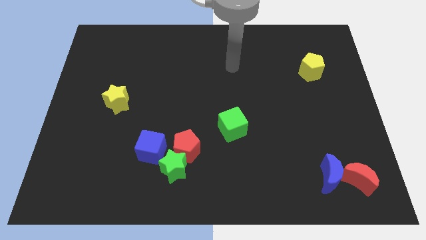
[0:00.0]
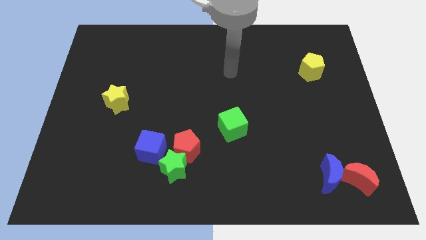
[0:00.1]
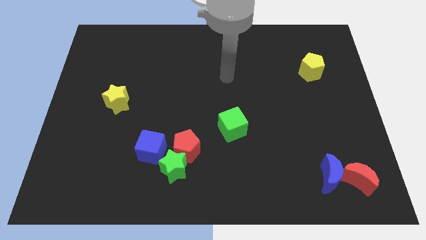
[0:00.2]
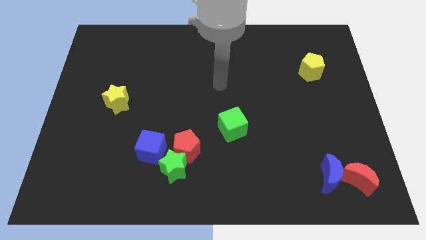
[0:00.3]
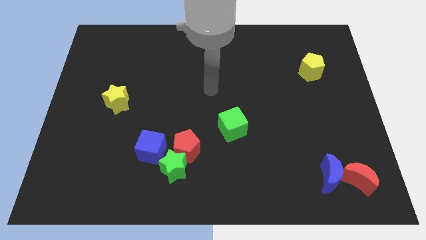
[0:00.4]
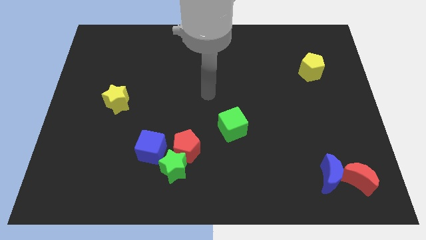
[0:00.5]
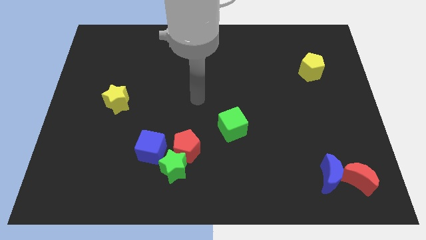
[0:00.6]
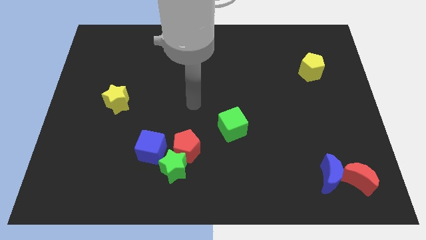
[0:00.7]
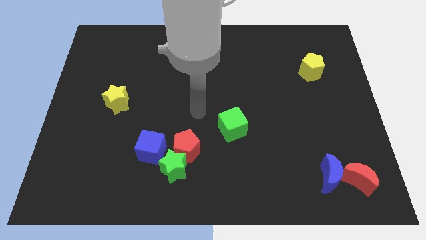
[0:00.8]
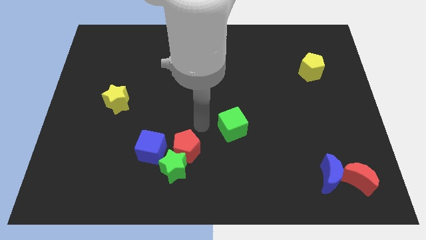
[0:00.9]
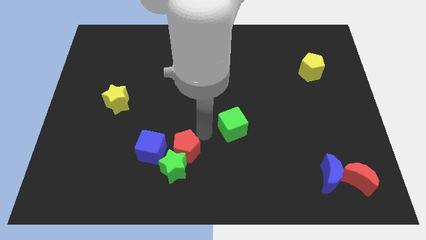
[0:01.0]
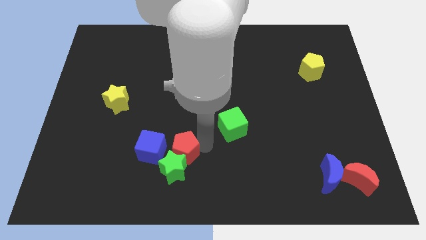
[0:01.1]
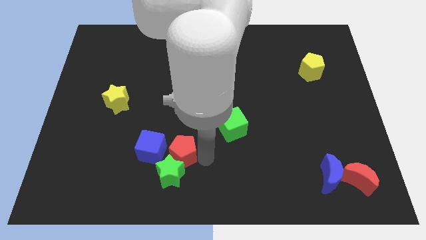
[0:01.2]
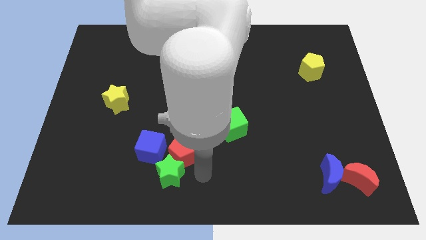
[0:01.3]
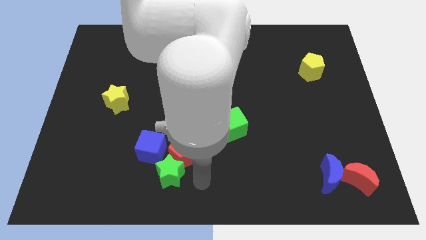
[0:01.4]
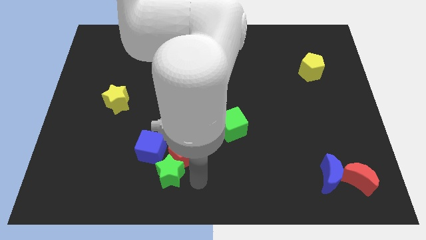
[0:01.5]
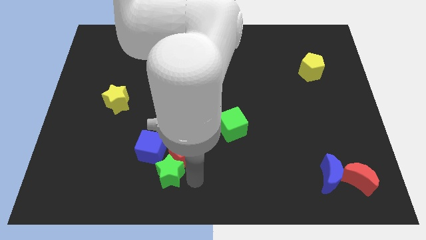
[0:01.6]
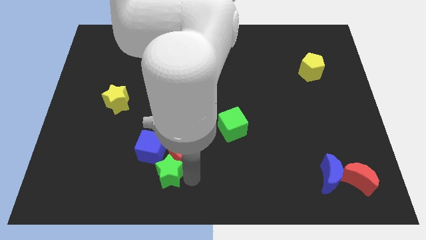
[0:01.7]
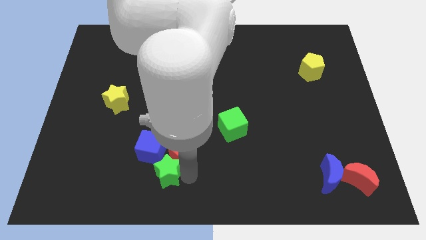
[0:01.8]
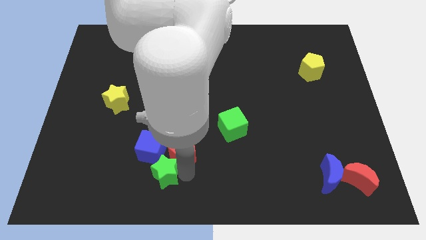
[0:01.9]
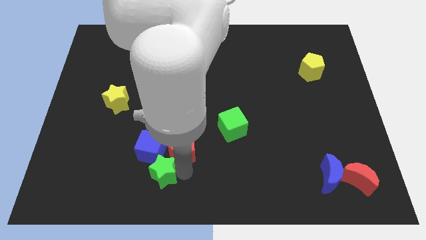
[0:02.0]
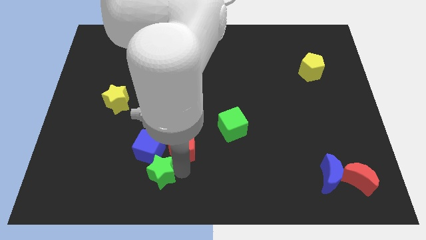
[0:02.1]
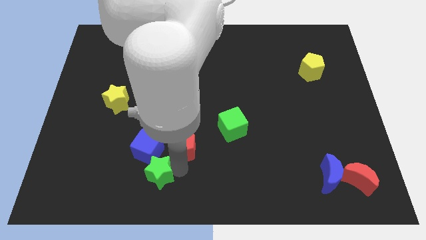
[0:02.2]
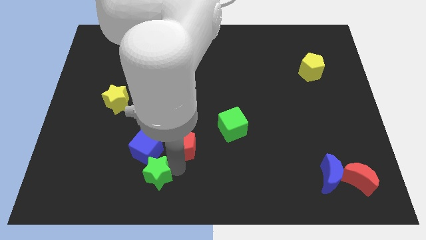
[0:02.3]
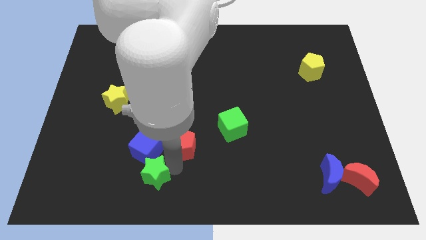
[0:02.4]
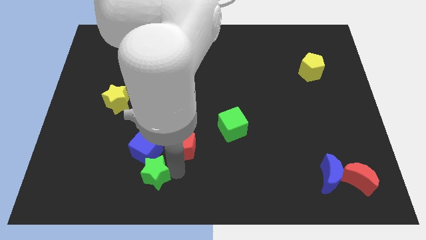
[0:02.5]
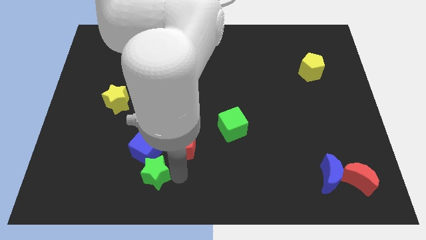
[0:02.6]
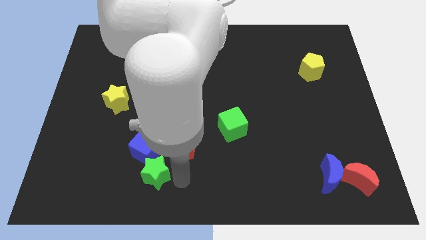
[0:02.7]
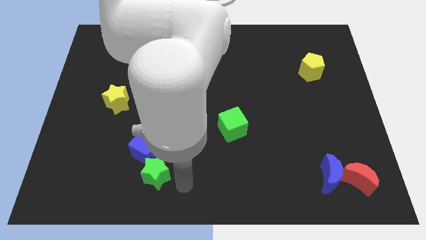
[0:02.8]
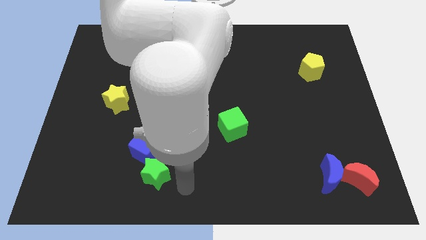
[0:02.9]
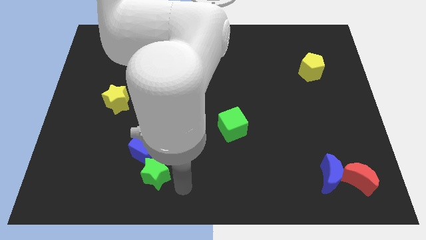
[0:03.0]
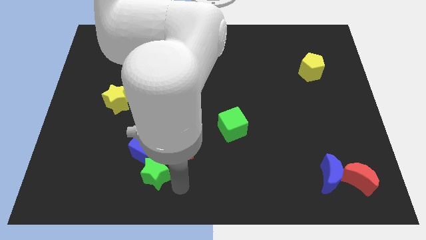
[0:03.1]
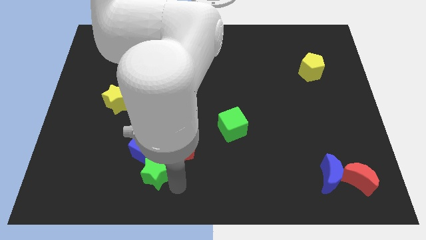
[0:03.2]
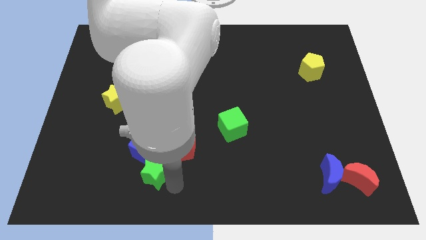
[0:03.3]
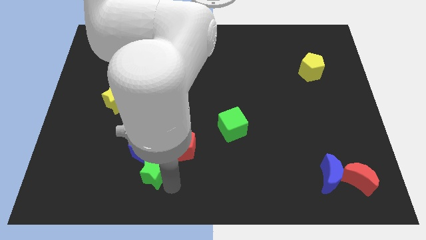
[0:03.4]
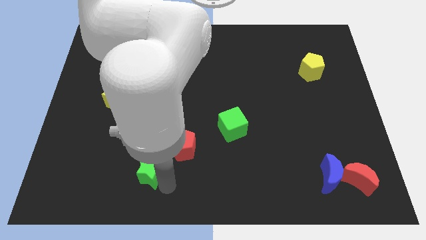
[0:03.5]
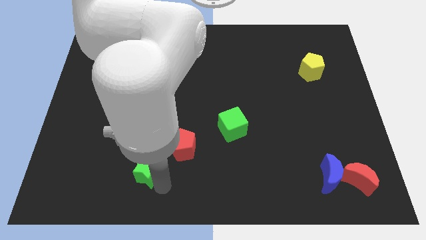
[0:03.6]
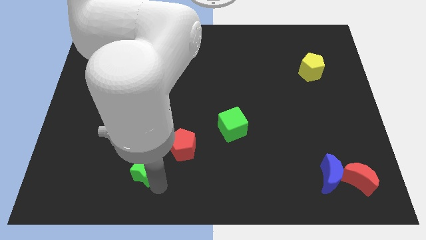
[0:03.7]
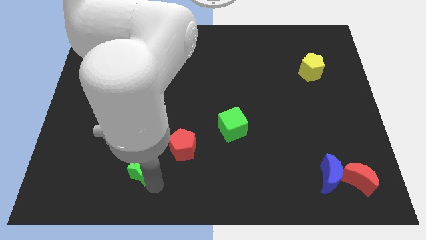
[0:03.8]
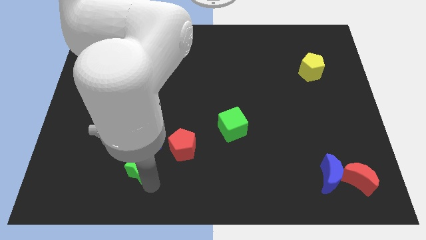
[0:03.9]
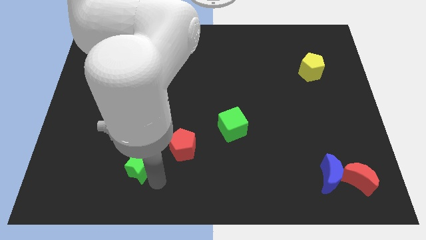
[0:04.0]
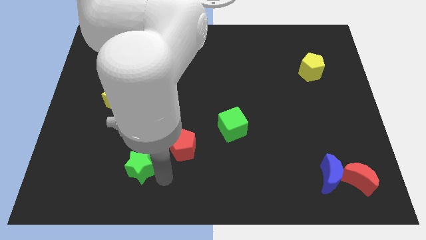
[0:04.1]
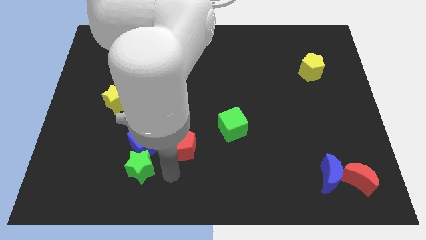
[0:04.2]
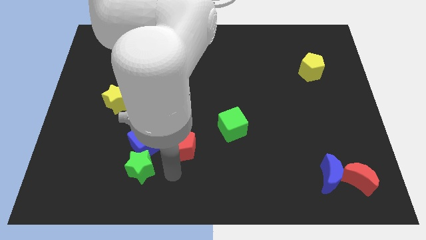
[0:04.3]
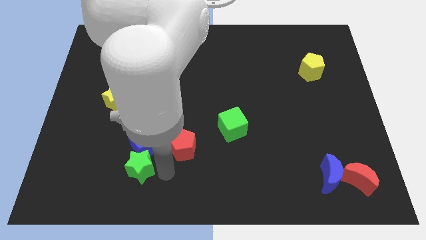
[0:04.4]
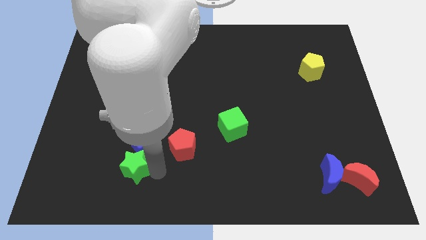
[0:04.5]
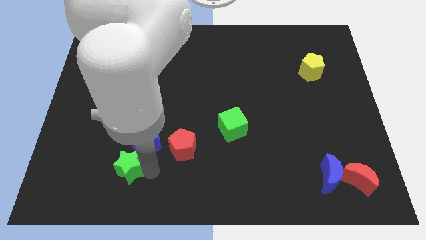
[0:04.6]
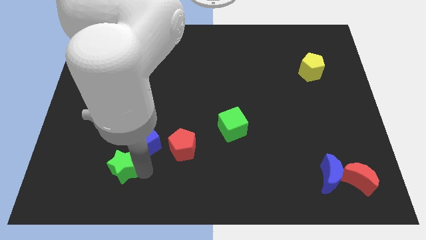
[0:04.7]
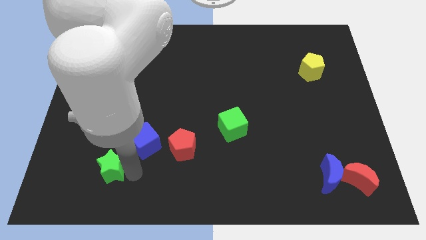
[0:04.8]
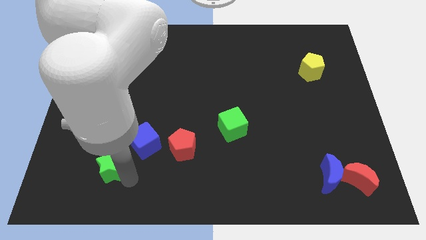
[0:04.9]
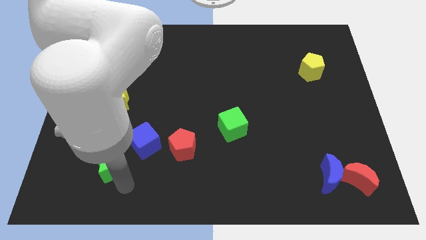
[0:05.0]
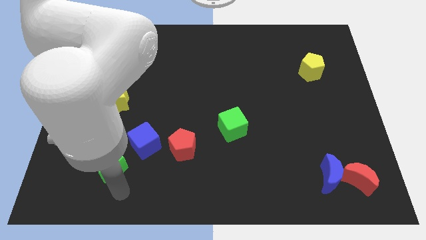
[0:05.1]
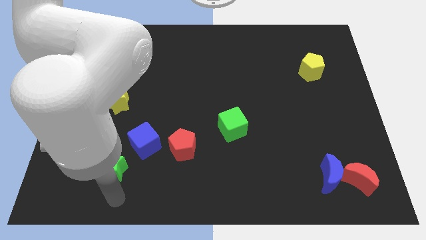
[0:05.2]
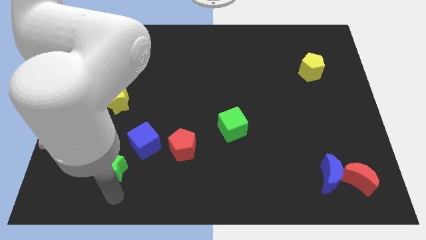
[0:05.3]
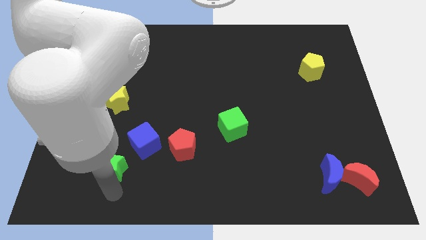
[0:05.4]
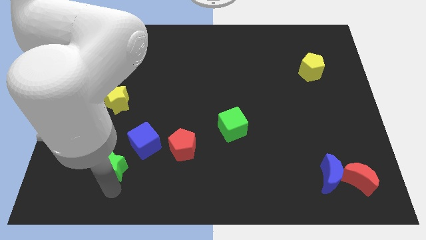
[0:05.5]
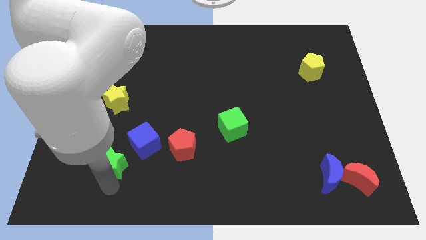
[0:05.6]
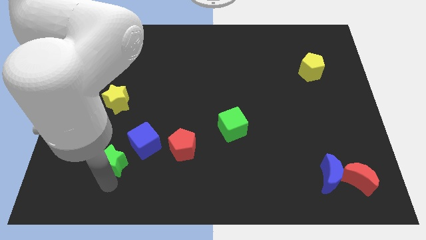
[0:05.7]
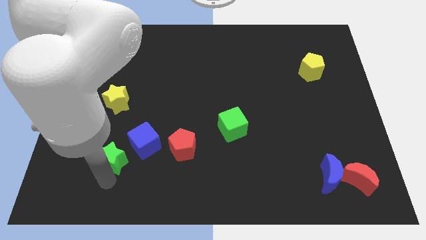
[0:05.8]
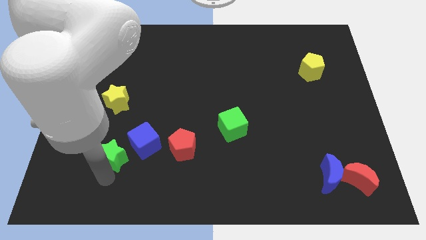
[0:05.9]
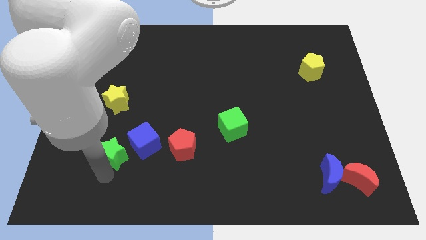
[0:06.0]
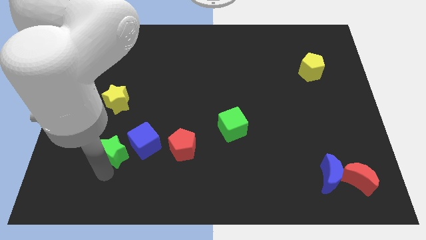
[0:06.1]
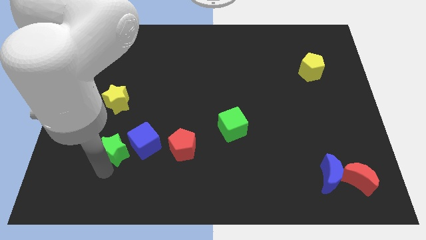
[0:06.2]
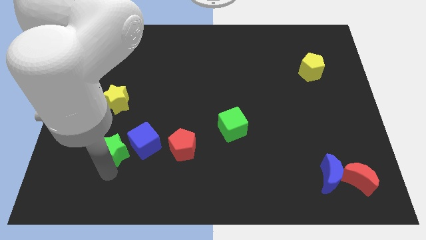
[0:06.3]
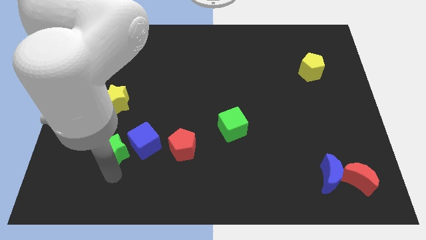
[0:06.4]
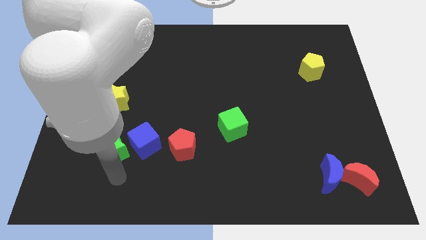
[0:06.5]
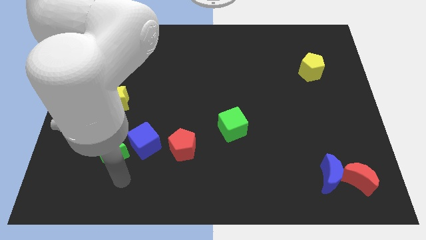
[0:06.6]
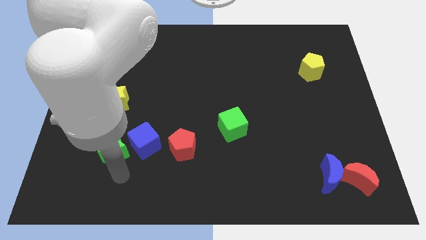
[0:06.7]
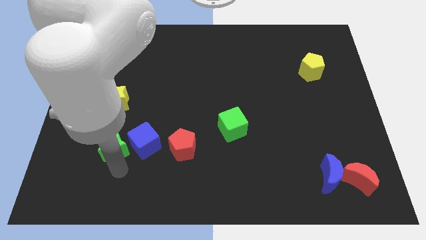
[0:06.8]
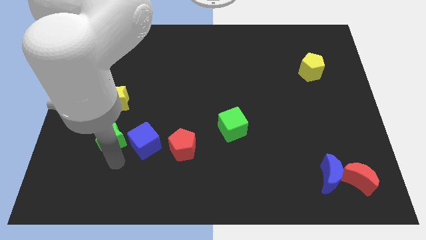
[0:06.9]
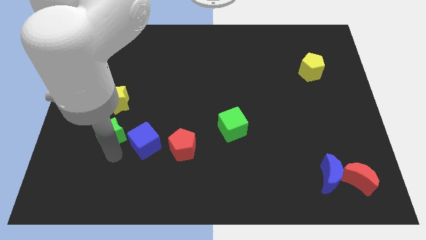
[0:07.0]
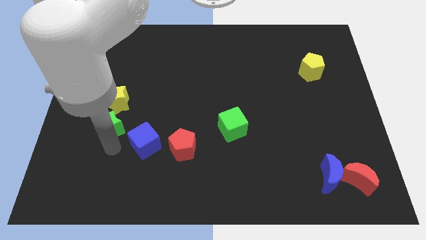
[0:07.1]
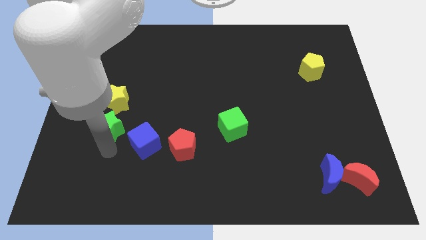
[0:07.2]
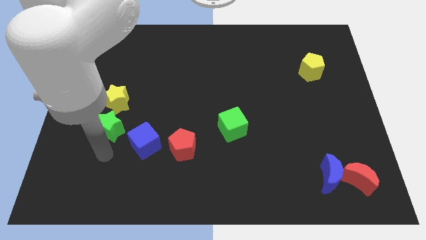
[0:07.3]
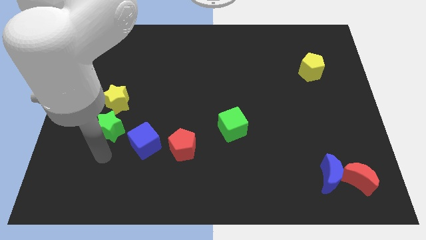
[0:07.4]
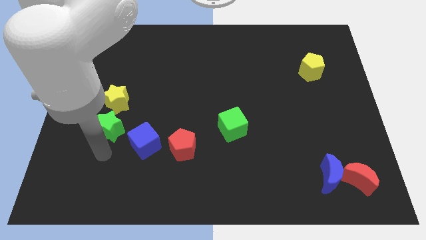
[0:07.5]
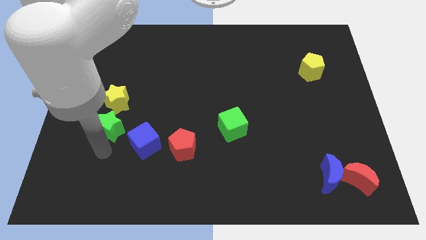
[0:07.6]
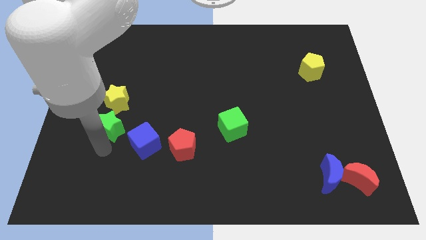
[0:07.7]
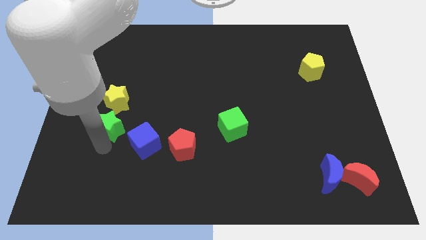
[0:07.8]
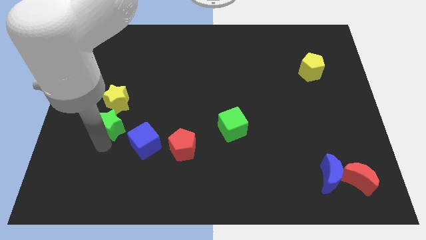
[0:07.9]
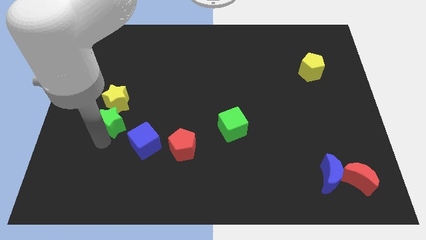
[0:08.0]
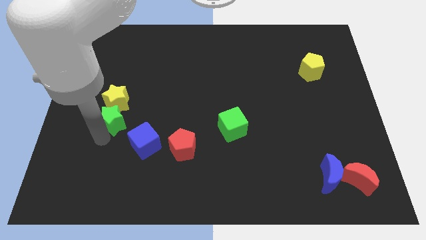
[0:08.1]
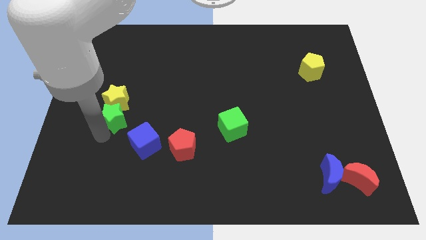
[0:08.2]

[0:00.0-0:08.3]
put the green star next to the yellow star
